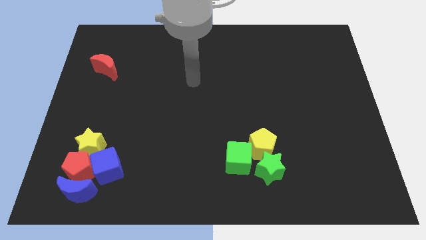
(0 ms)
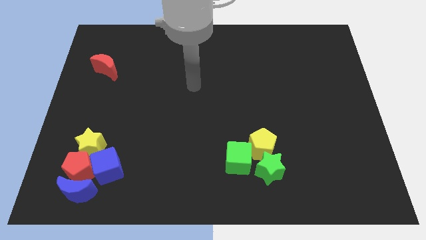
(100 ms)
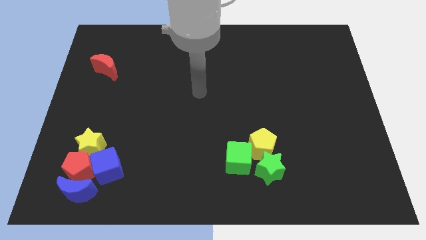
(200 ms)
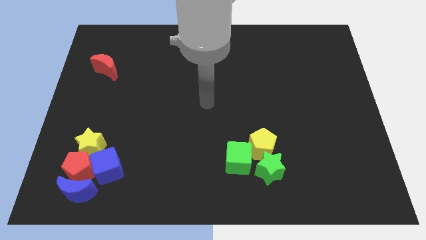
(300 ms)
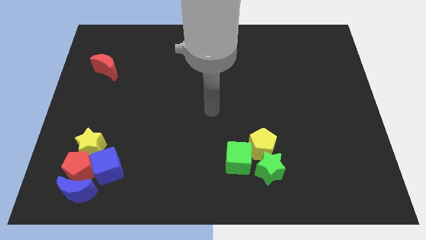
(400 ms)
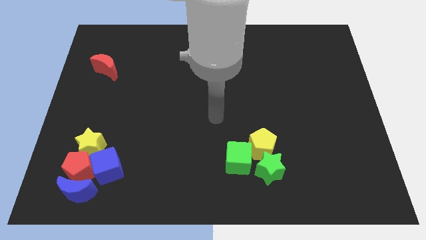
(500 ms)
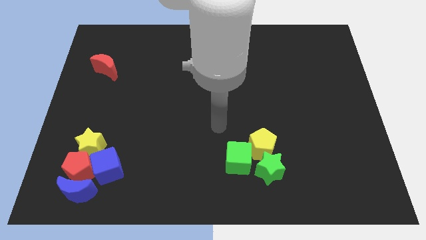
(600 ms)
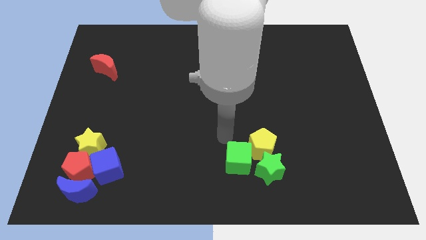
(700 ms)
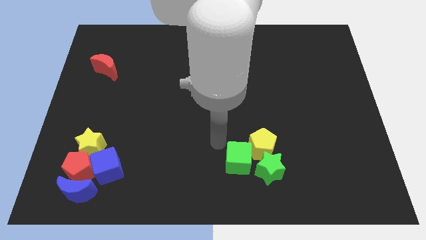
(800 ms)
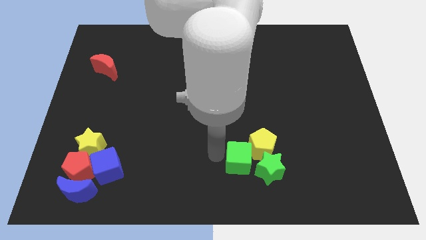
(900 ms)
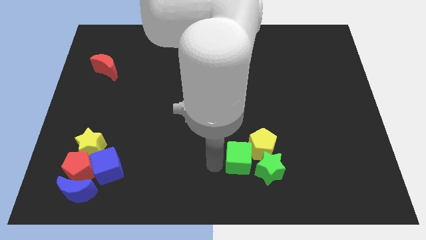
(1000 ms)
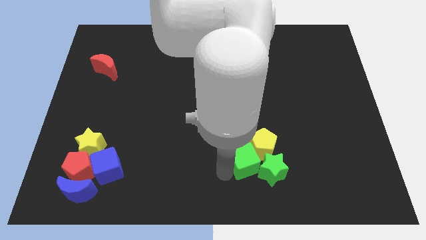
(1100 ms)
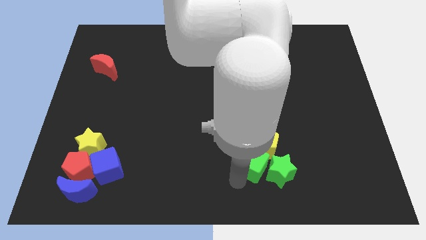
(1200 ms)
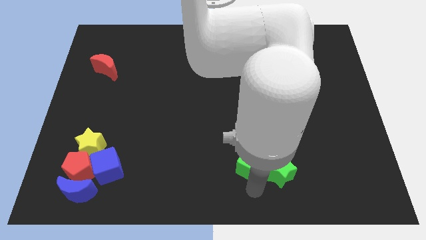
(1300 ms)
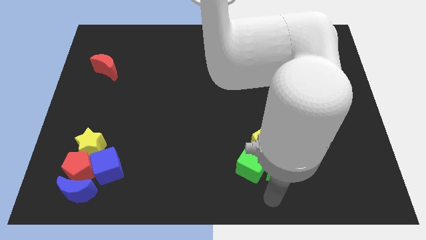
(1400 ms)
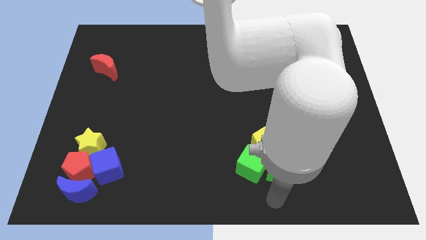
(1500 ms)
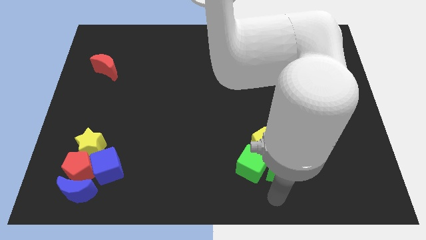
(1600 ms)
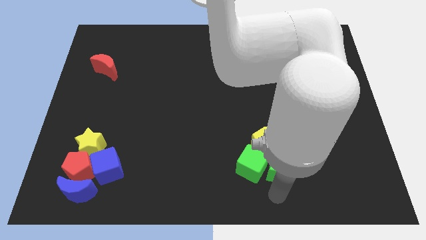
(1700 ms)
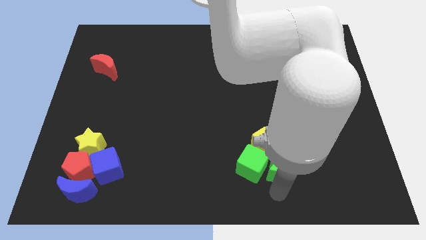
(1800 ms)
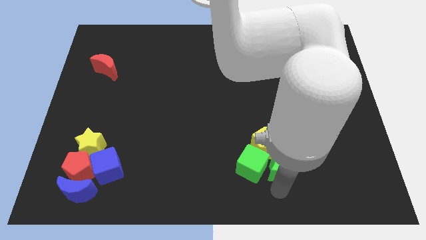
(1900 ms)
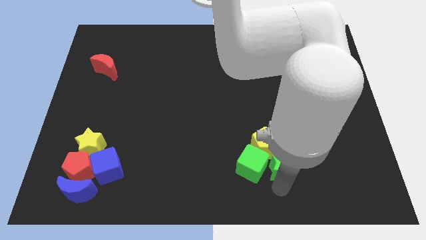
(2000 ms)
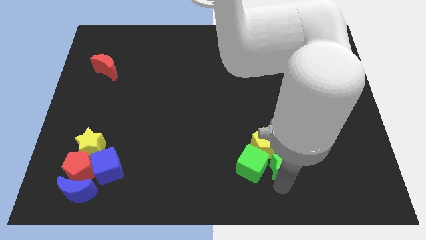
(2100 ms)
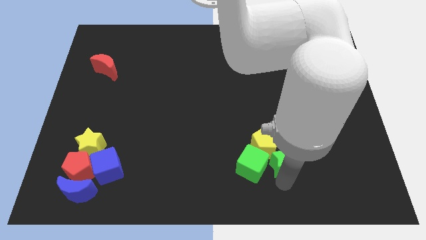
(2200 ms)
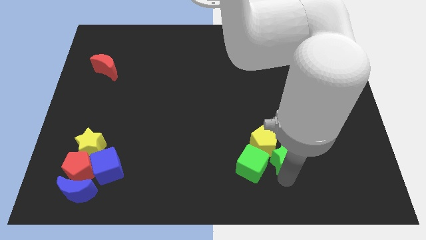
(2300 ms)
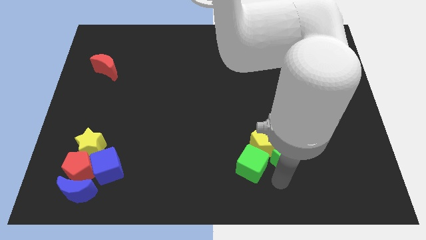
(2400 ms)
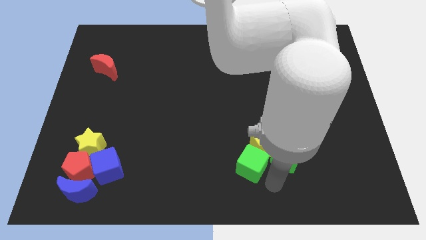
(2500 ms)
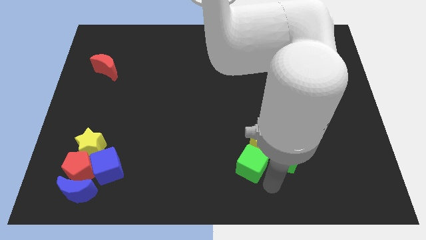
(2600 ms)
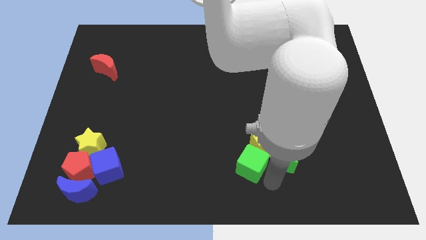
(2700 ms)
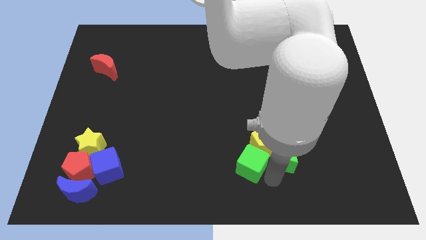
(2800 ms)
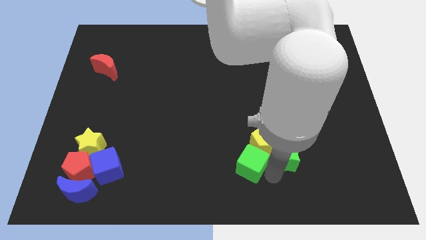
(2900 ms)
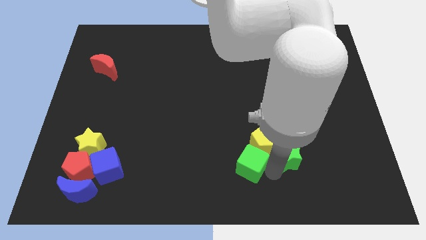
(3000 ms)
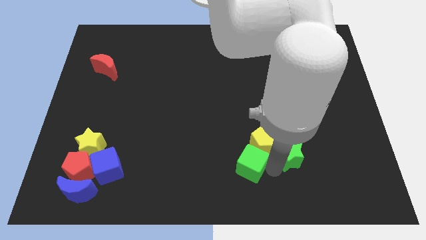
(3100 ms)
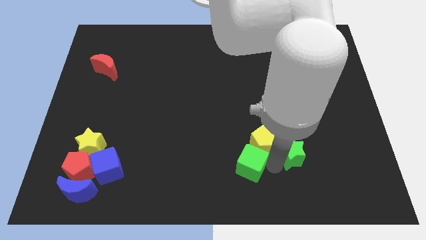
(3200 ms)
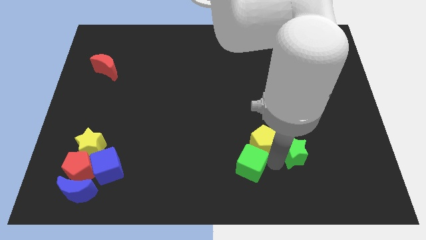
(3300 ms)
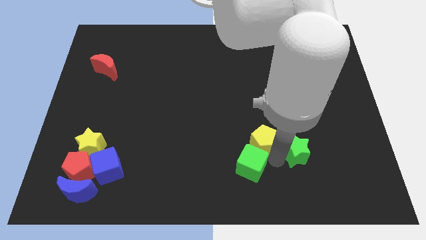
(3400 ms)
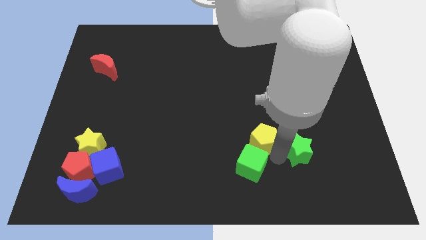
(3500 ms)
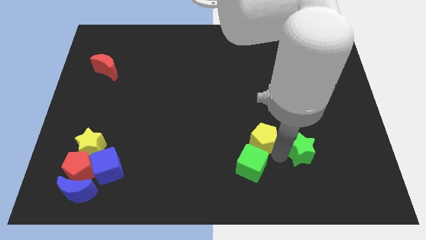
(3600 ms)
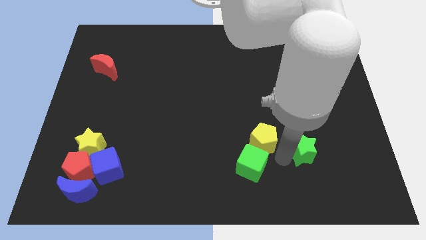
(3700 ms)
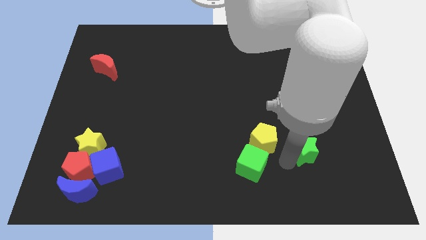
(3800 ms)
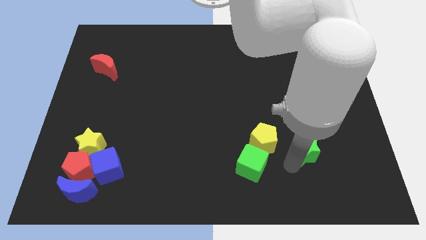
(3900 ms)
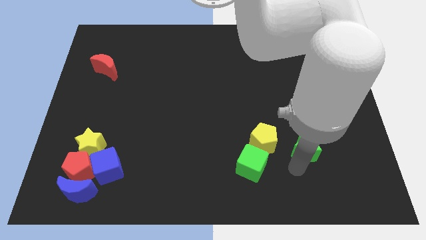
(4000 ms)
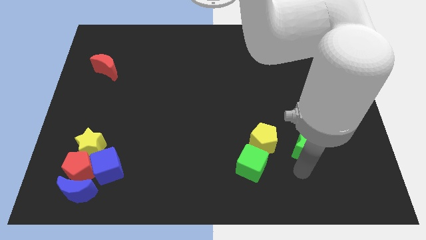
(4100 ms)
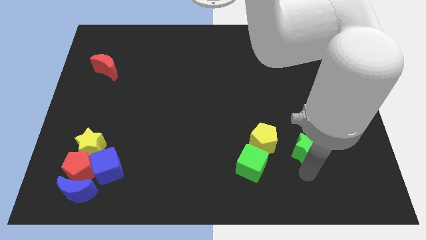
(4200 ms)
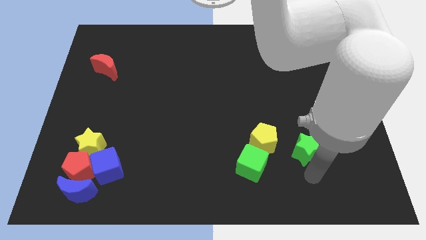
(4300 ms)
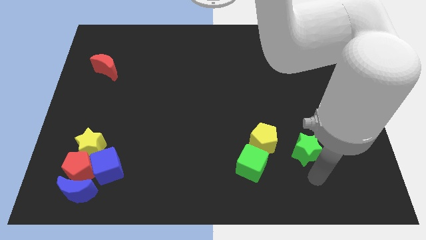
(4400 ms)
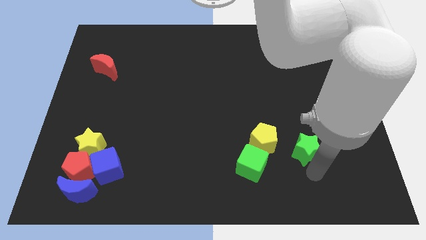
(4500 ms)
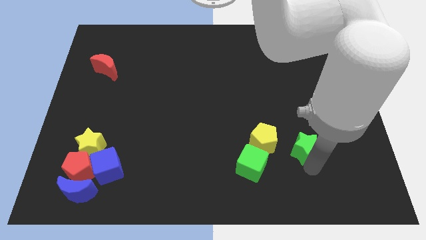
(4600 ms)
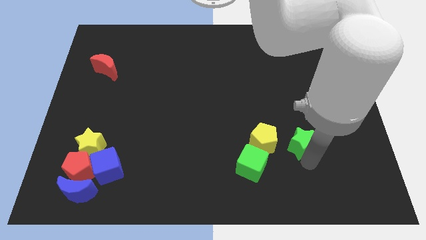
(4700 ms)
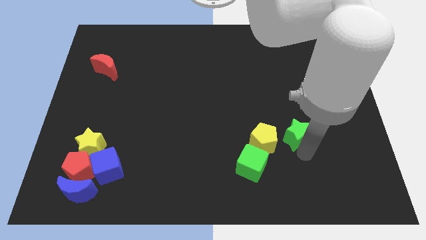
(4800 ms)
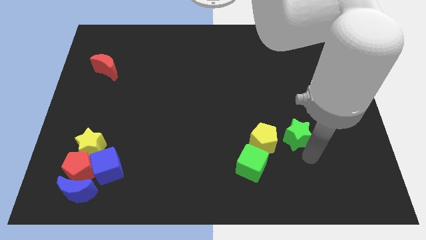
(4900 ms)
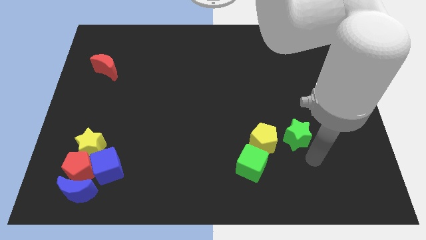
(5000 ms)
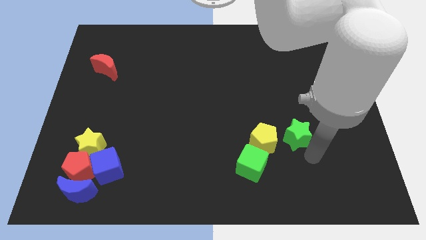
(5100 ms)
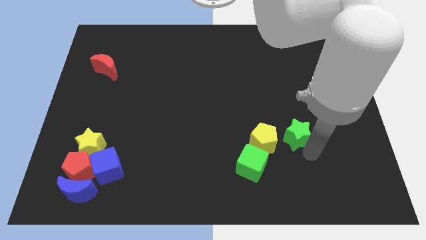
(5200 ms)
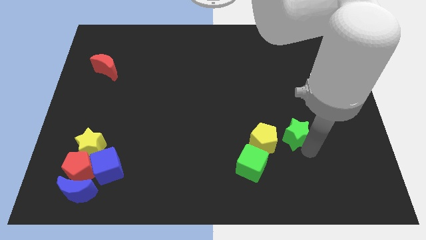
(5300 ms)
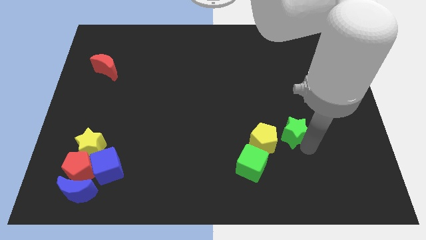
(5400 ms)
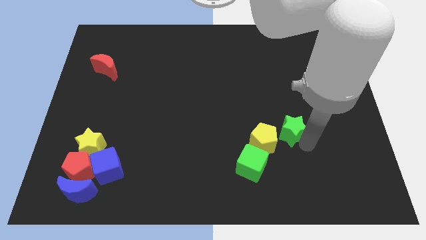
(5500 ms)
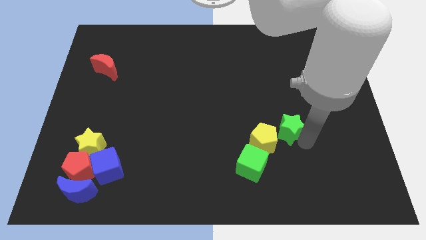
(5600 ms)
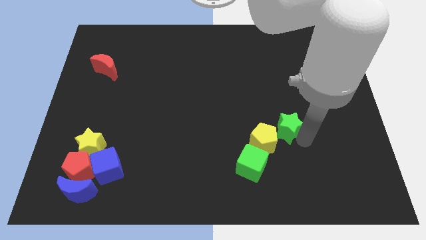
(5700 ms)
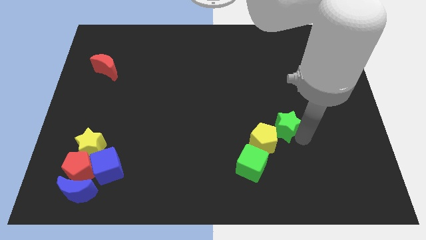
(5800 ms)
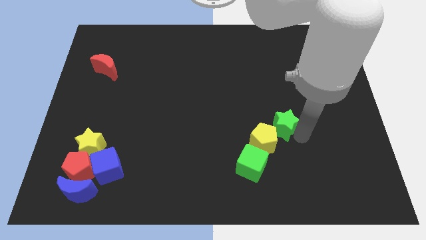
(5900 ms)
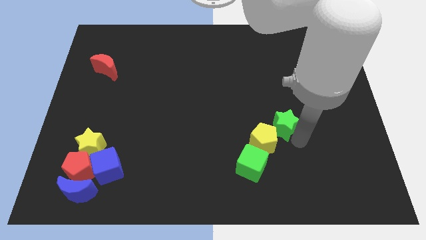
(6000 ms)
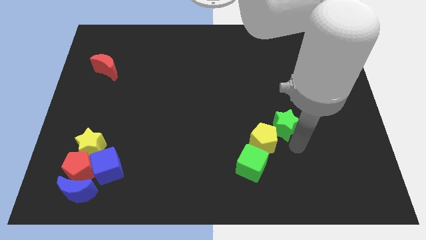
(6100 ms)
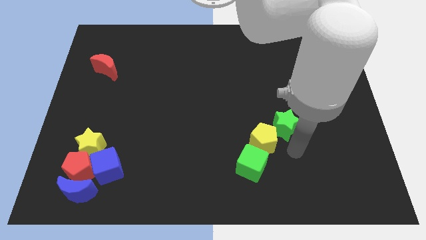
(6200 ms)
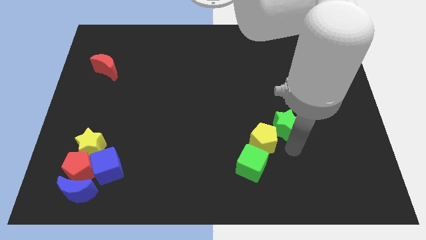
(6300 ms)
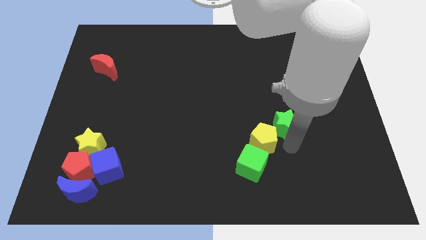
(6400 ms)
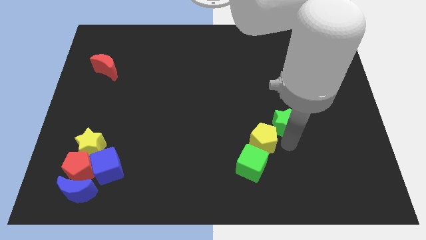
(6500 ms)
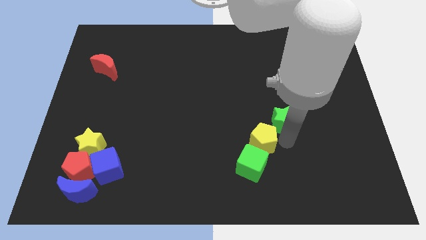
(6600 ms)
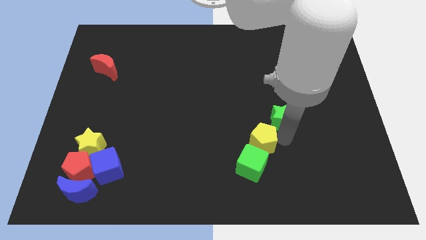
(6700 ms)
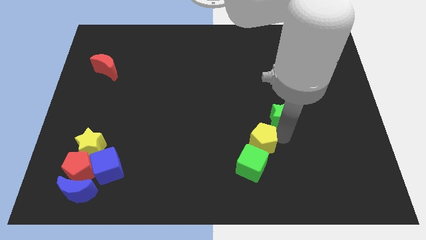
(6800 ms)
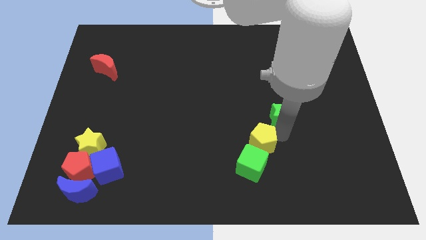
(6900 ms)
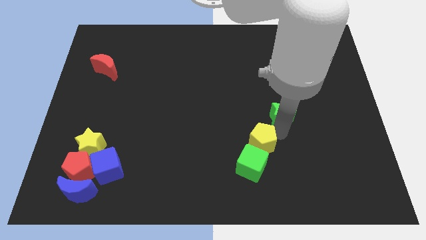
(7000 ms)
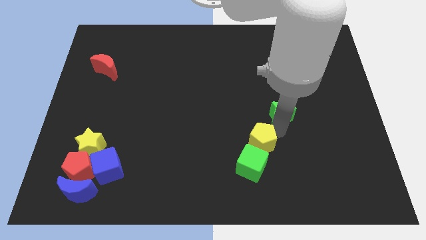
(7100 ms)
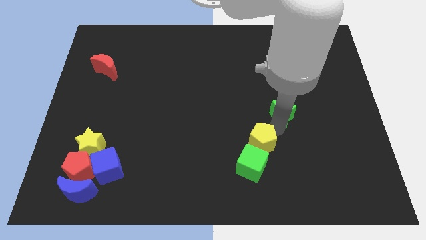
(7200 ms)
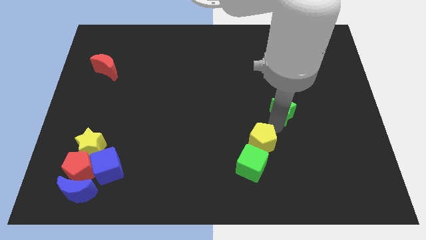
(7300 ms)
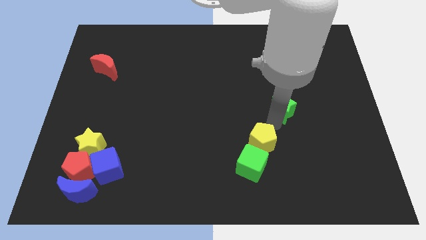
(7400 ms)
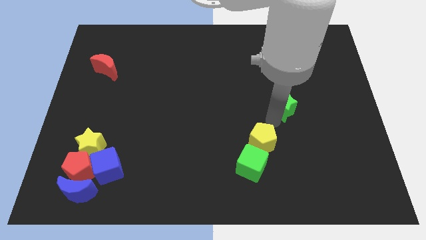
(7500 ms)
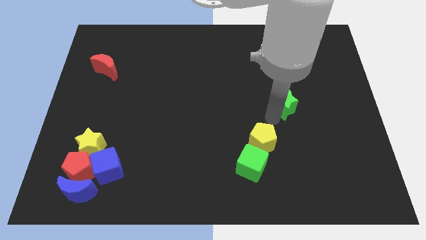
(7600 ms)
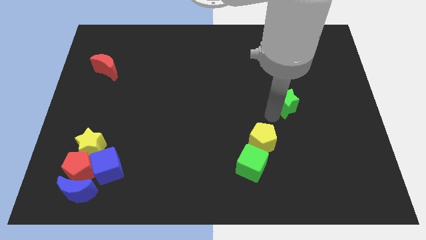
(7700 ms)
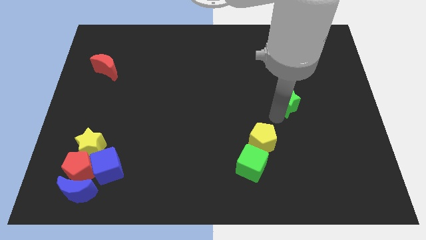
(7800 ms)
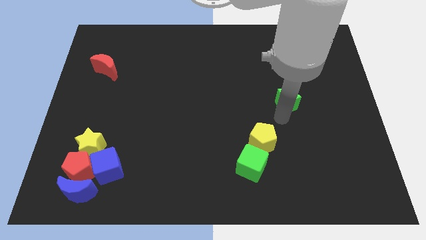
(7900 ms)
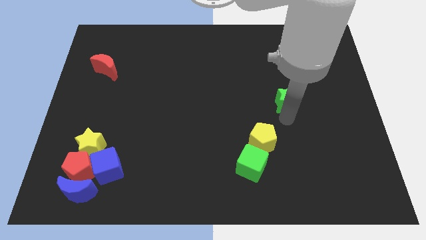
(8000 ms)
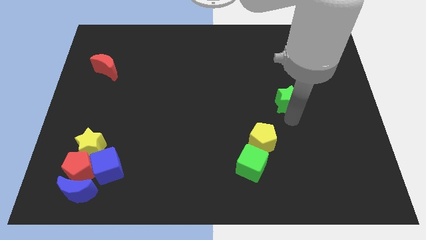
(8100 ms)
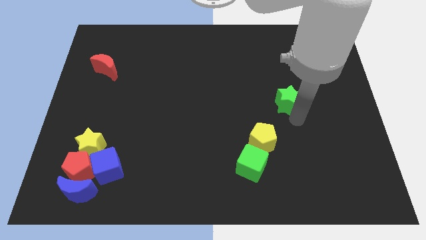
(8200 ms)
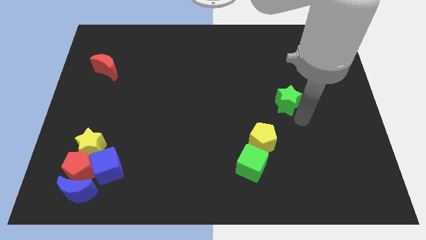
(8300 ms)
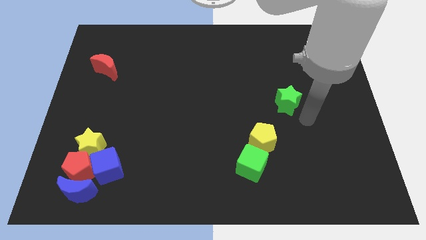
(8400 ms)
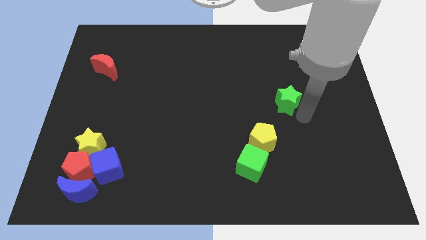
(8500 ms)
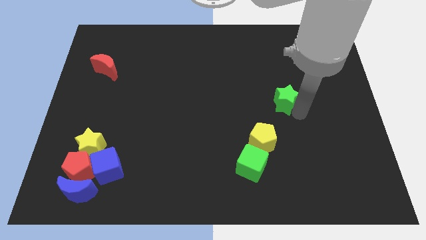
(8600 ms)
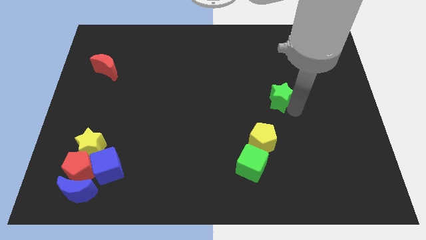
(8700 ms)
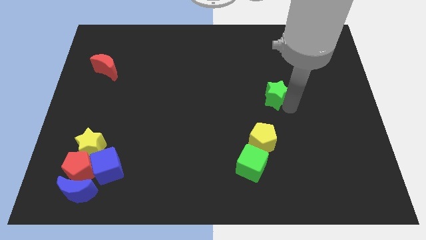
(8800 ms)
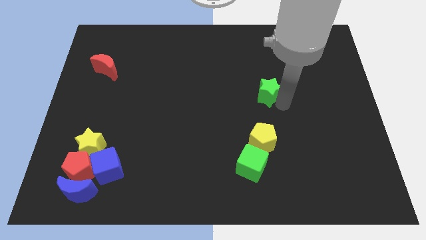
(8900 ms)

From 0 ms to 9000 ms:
push the green star up
